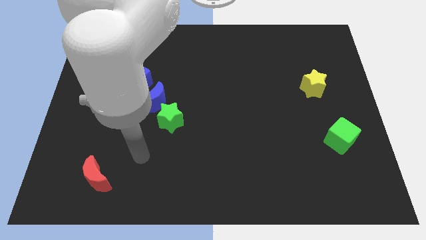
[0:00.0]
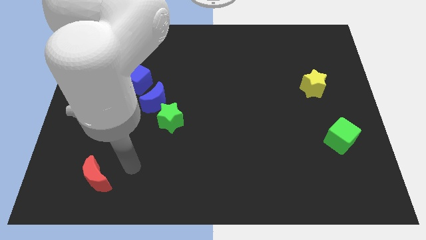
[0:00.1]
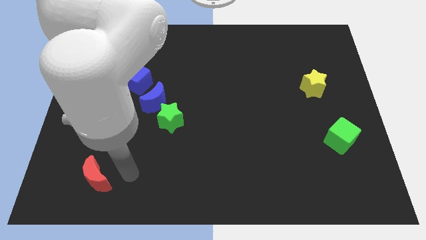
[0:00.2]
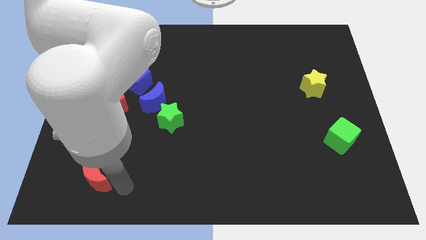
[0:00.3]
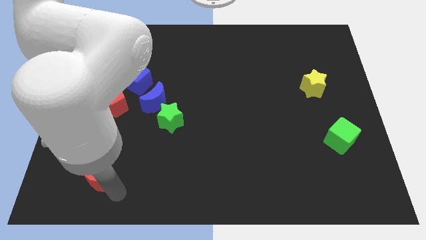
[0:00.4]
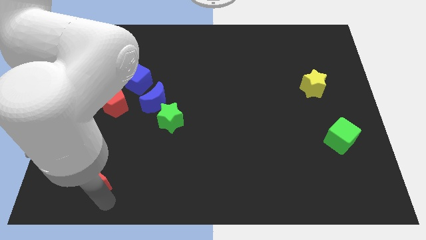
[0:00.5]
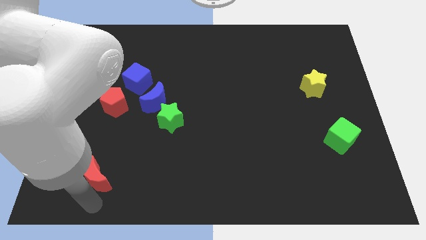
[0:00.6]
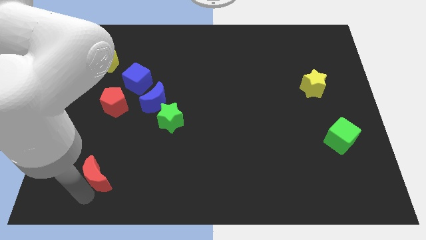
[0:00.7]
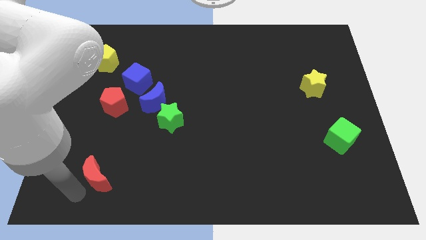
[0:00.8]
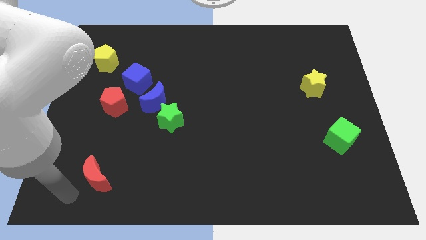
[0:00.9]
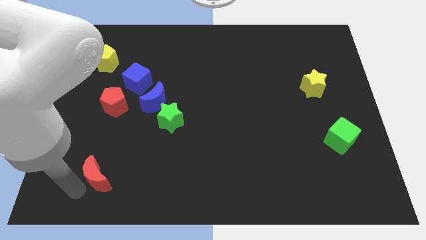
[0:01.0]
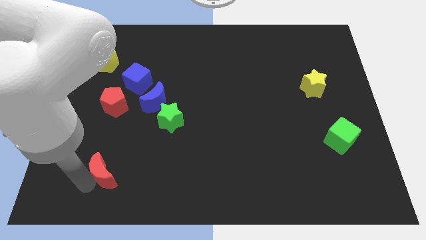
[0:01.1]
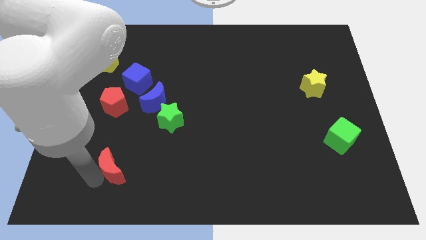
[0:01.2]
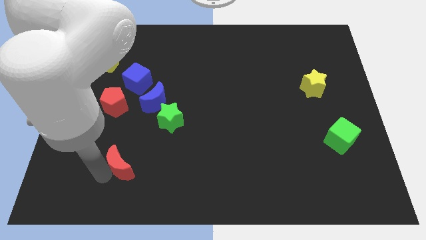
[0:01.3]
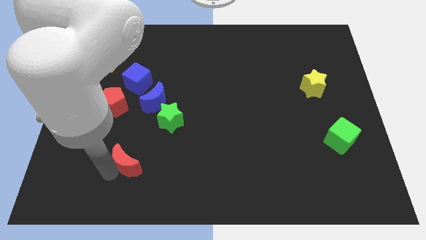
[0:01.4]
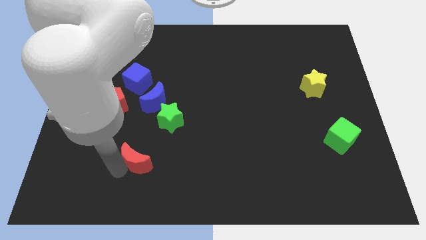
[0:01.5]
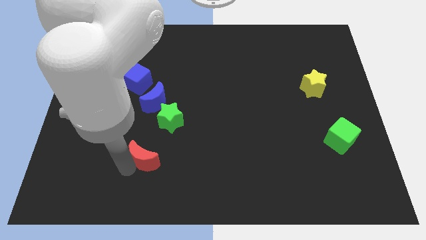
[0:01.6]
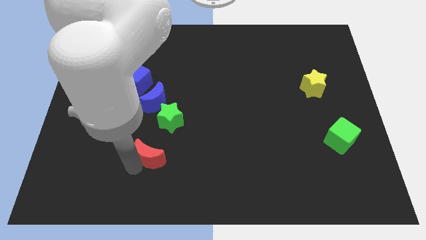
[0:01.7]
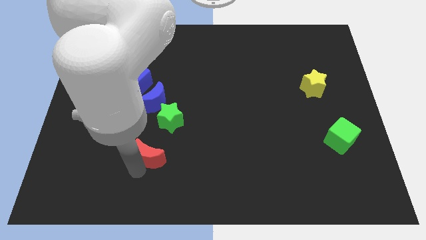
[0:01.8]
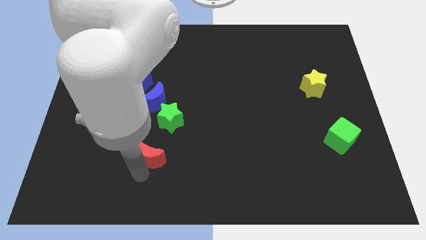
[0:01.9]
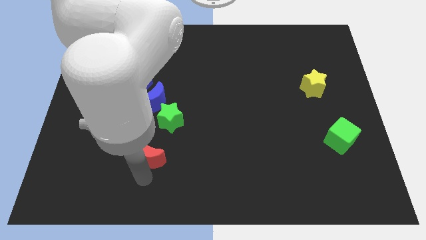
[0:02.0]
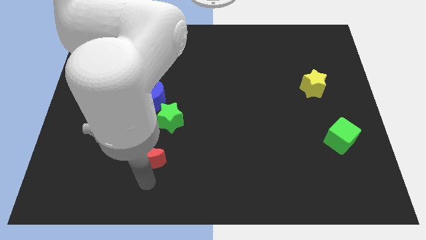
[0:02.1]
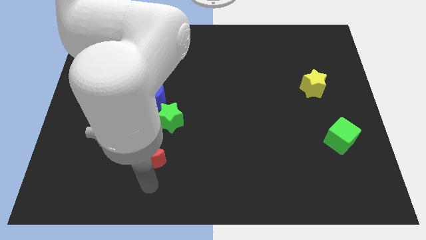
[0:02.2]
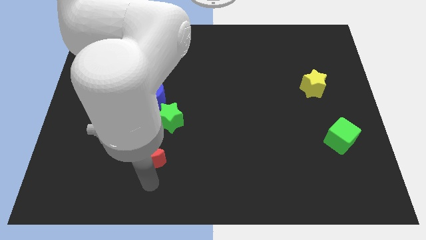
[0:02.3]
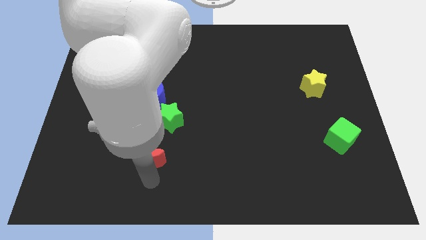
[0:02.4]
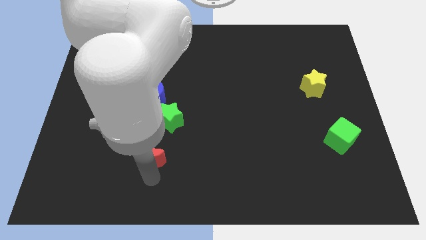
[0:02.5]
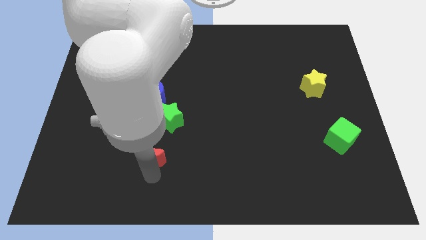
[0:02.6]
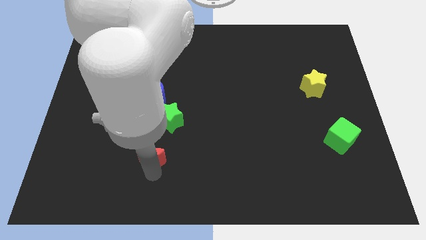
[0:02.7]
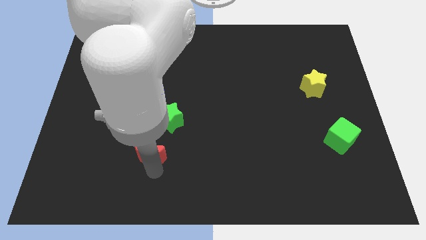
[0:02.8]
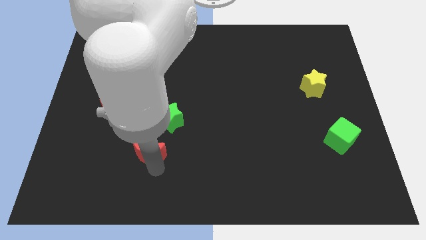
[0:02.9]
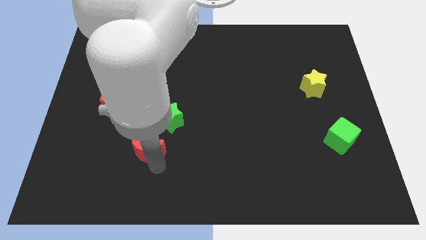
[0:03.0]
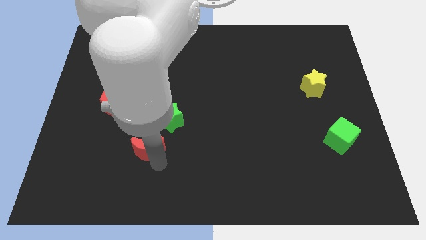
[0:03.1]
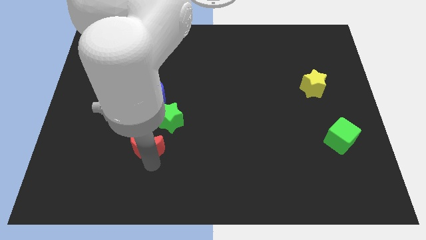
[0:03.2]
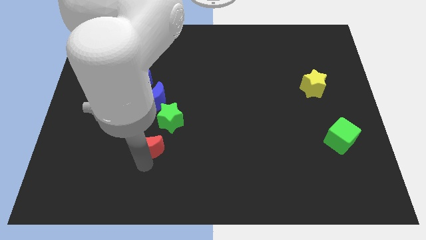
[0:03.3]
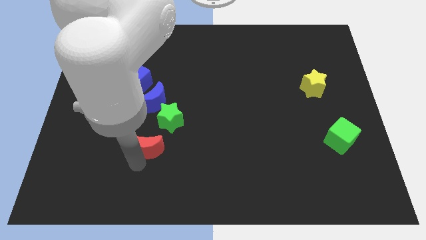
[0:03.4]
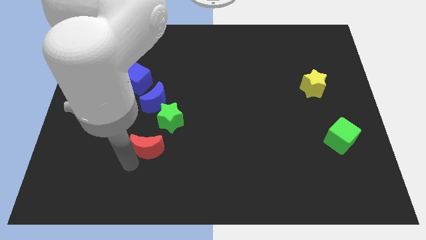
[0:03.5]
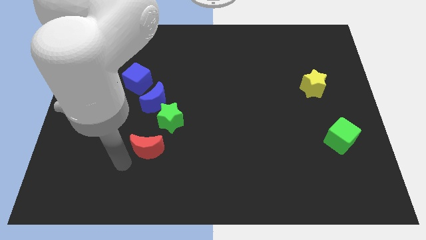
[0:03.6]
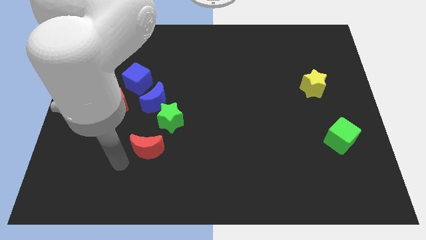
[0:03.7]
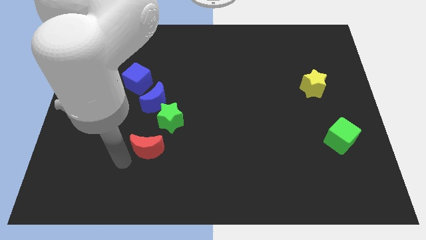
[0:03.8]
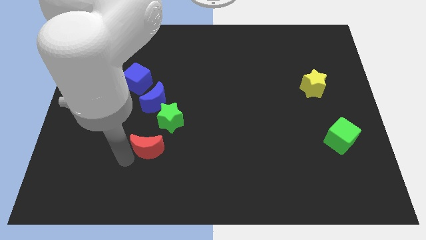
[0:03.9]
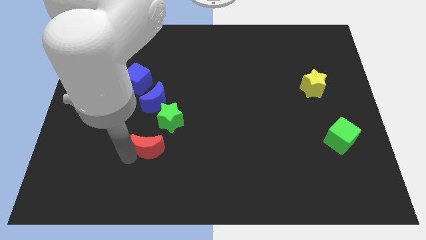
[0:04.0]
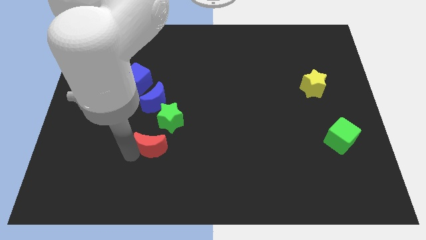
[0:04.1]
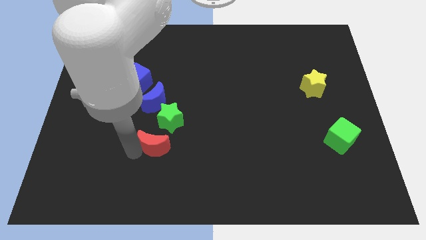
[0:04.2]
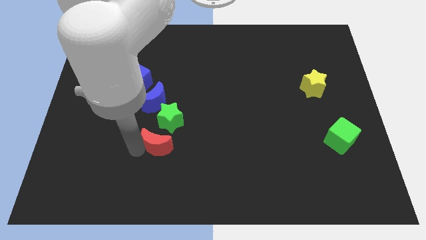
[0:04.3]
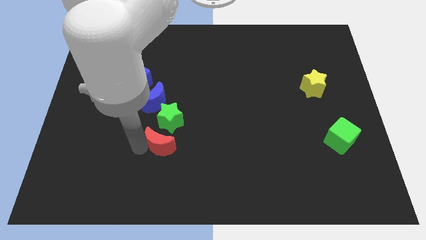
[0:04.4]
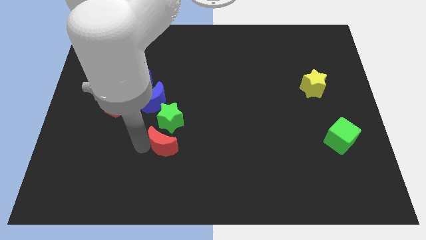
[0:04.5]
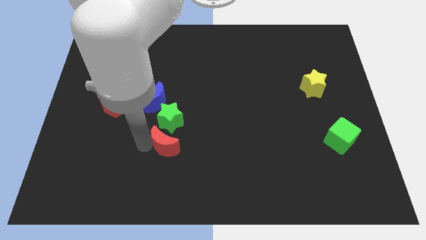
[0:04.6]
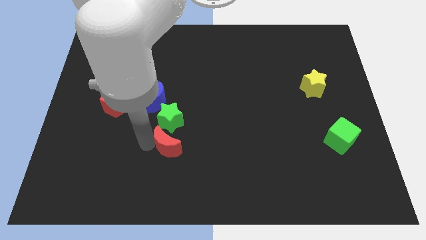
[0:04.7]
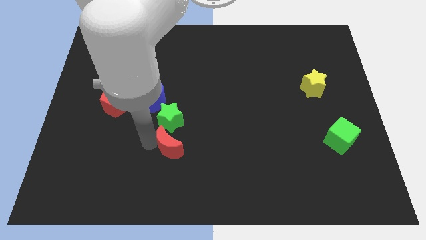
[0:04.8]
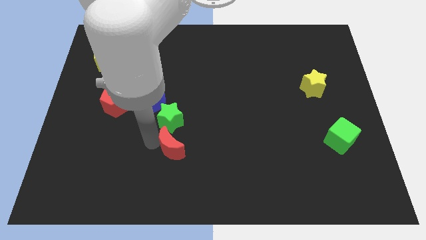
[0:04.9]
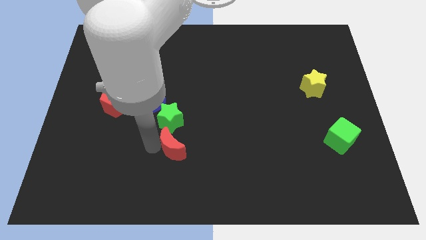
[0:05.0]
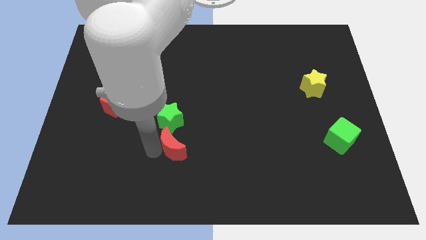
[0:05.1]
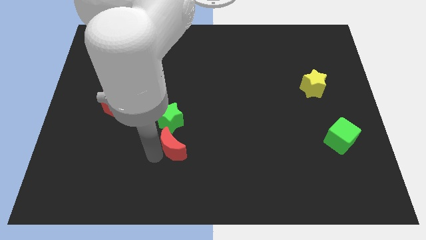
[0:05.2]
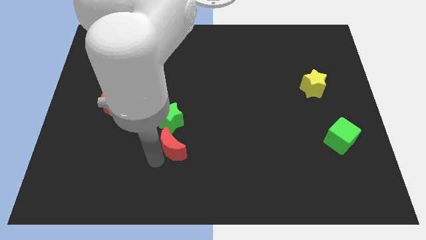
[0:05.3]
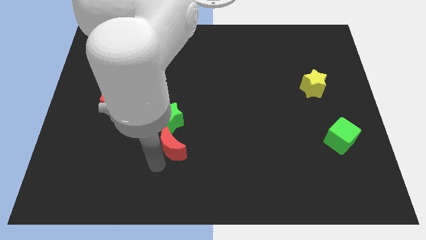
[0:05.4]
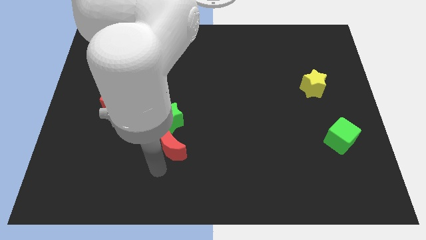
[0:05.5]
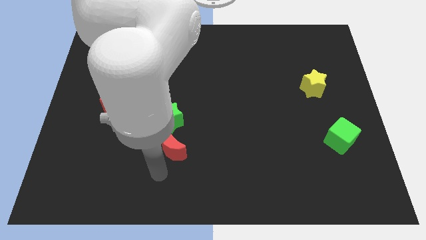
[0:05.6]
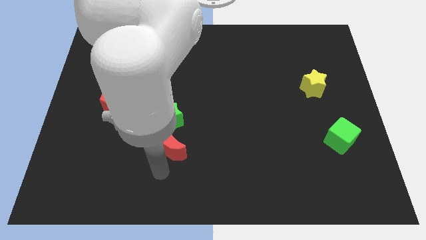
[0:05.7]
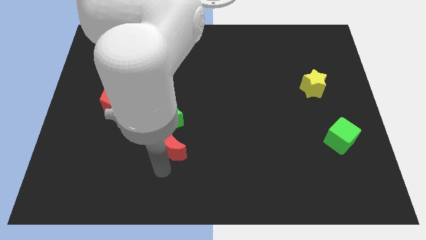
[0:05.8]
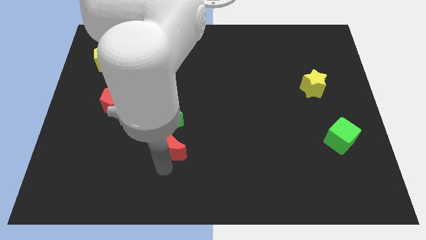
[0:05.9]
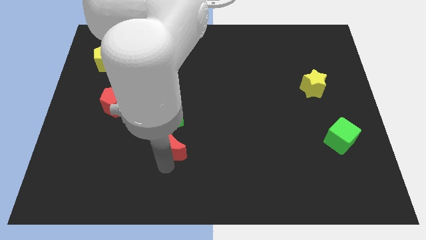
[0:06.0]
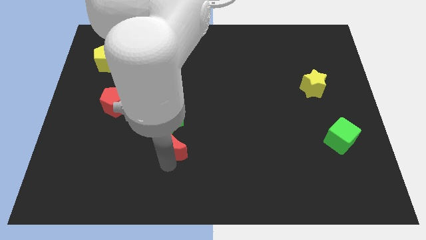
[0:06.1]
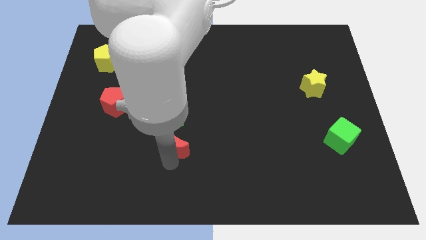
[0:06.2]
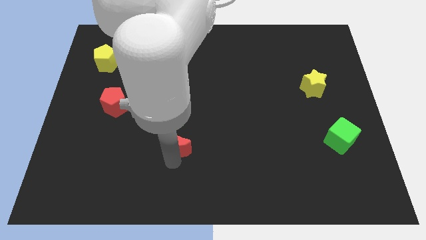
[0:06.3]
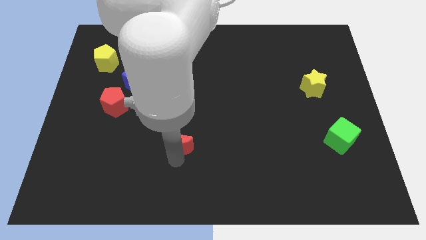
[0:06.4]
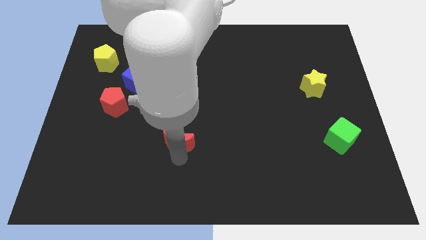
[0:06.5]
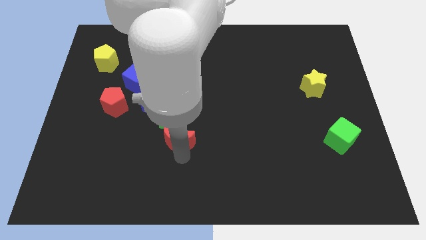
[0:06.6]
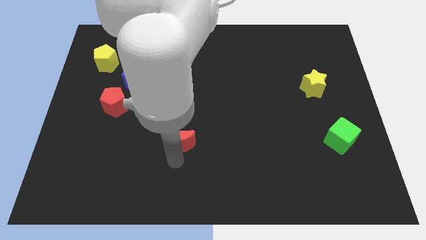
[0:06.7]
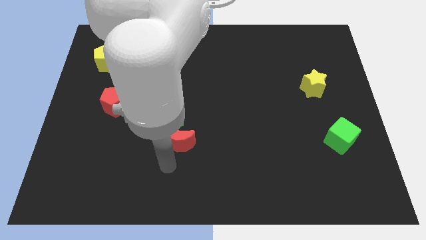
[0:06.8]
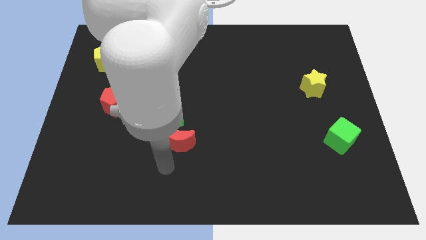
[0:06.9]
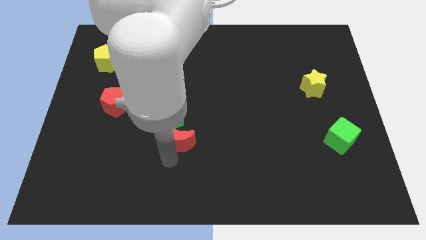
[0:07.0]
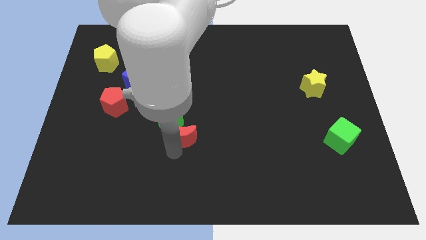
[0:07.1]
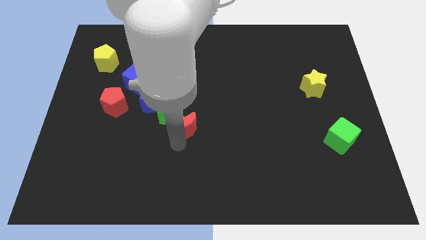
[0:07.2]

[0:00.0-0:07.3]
move the red moon upwards and then right

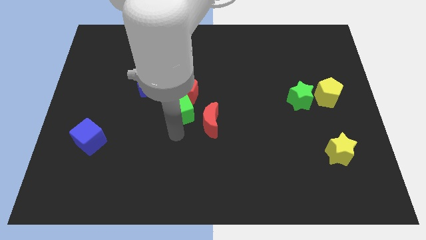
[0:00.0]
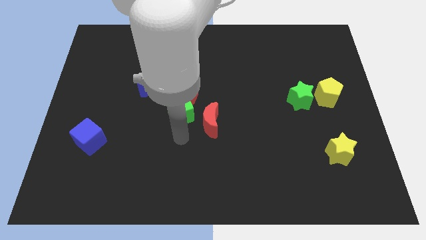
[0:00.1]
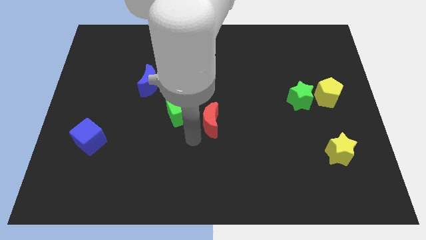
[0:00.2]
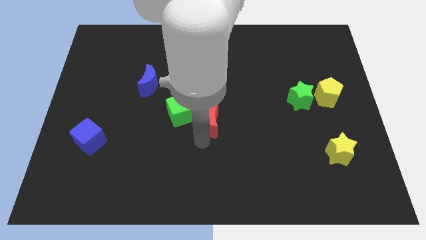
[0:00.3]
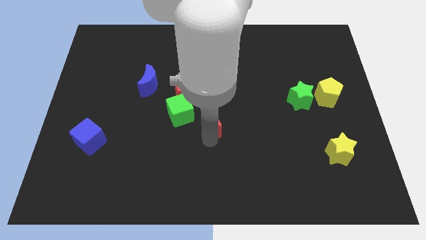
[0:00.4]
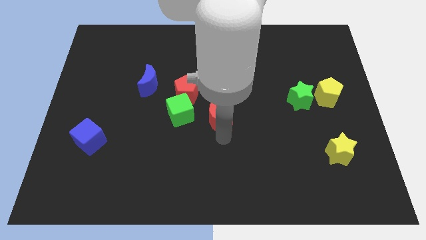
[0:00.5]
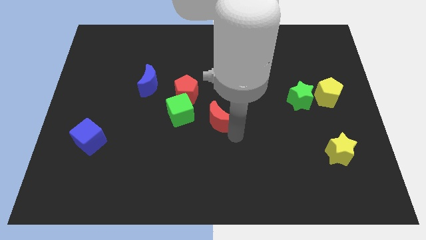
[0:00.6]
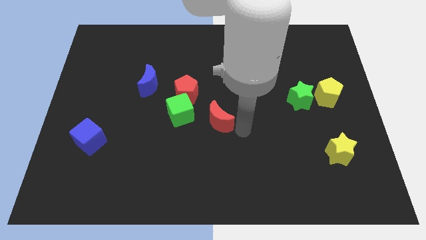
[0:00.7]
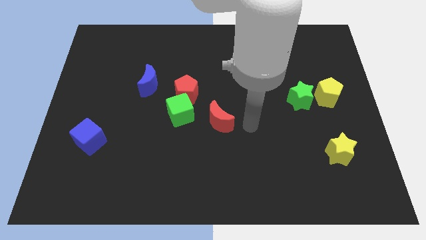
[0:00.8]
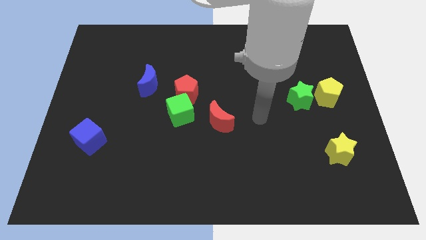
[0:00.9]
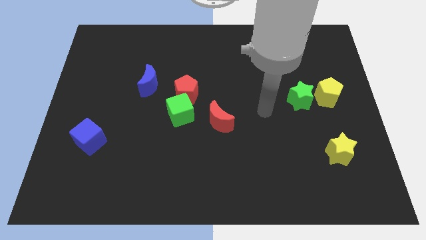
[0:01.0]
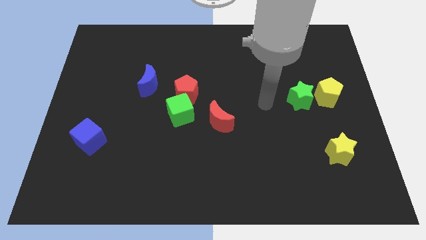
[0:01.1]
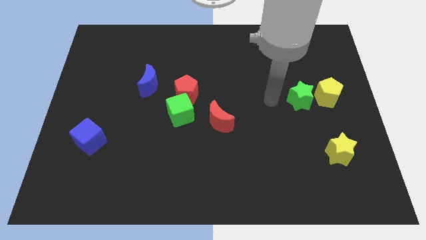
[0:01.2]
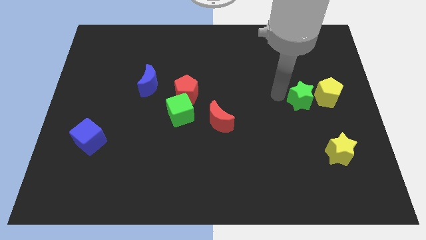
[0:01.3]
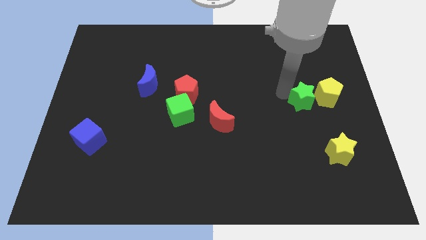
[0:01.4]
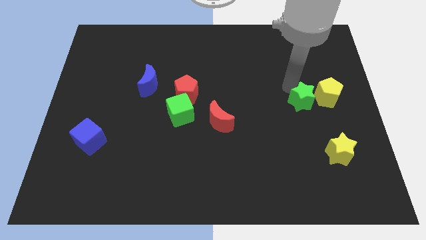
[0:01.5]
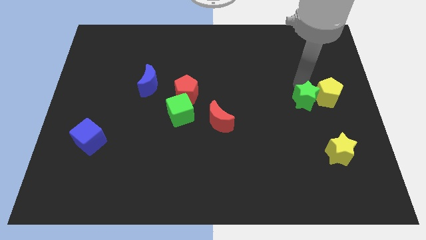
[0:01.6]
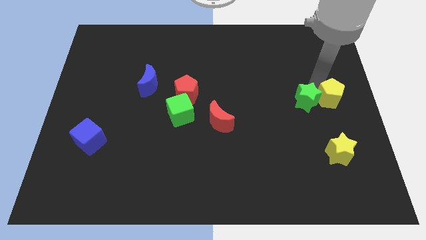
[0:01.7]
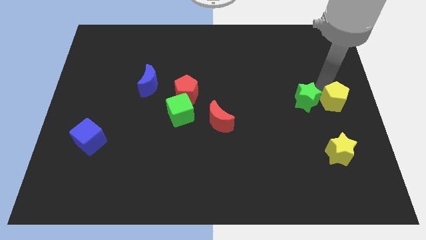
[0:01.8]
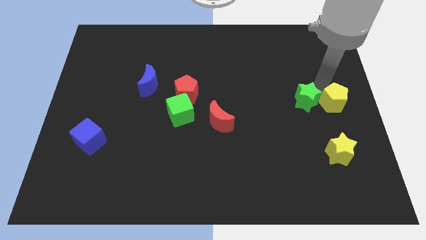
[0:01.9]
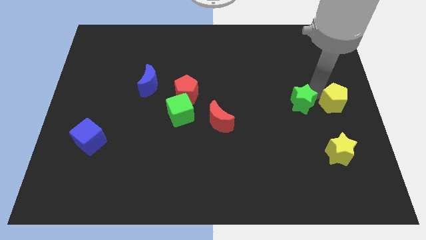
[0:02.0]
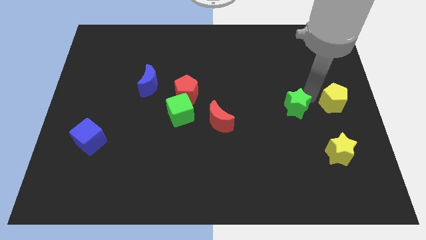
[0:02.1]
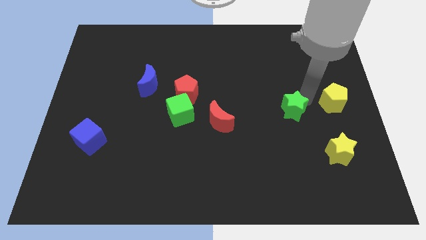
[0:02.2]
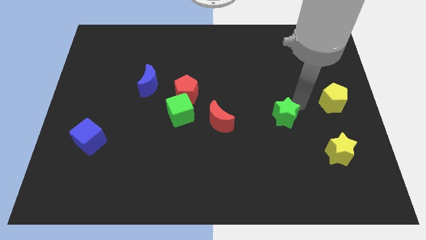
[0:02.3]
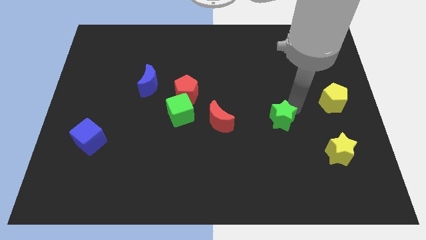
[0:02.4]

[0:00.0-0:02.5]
push the green star diagonally down and left somewhat
